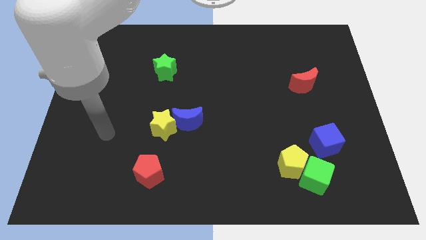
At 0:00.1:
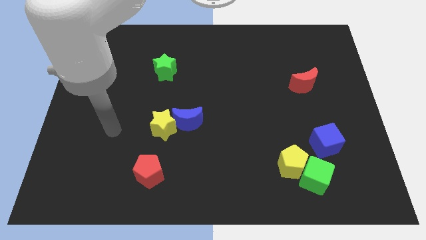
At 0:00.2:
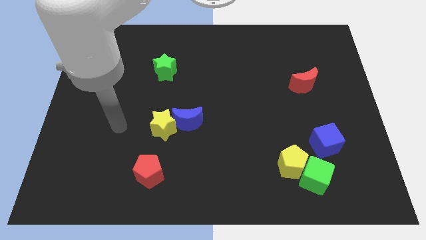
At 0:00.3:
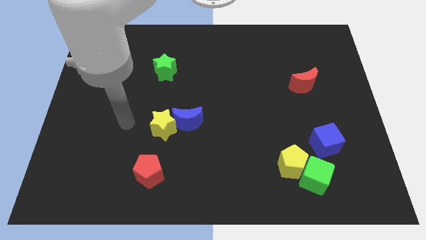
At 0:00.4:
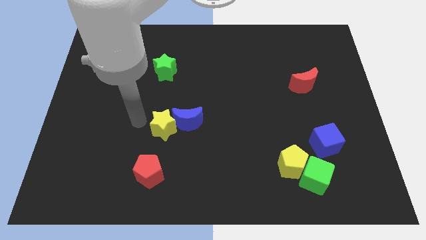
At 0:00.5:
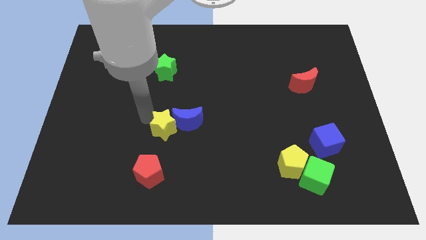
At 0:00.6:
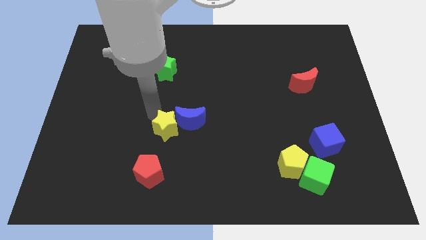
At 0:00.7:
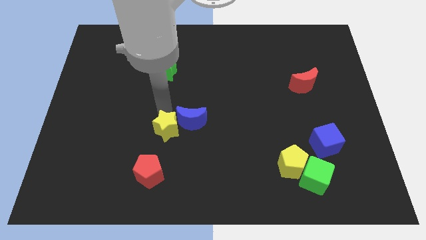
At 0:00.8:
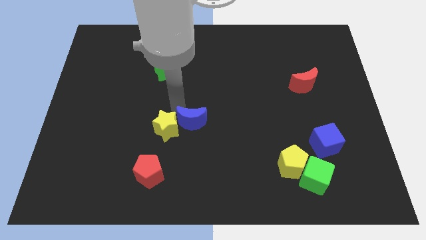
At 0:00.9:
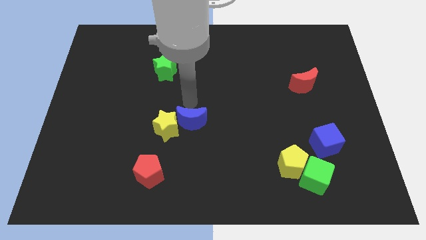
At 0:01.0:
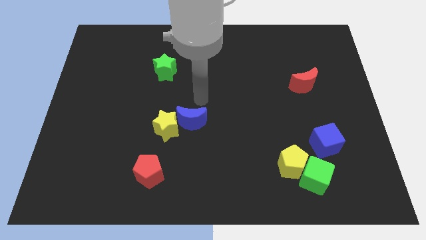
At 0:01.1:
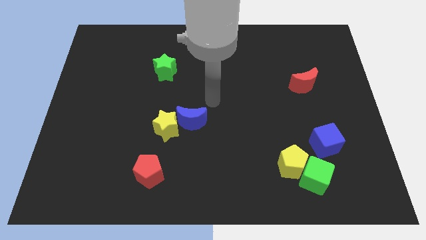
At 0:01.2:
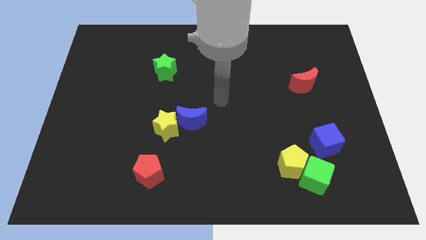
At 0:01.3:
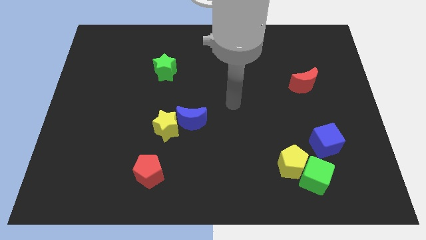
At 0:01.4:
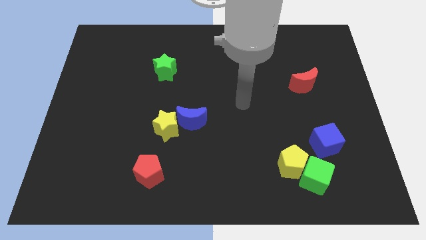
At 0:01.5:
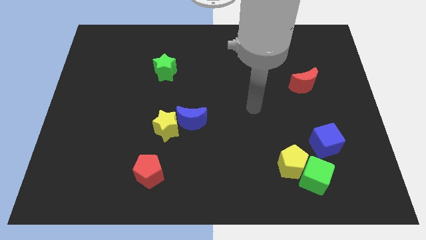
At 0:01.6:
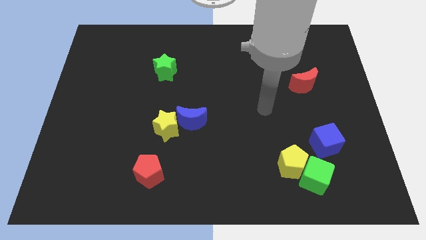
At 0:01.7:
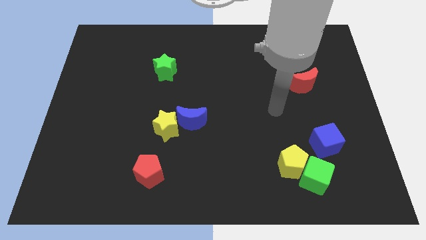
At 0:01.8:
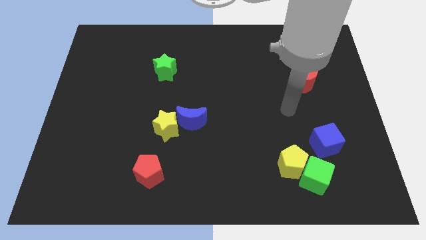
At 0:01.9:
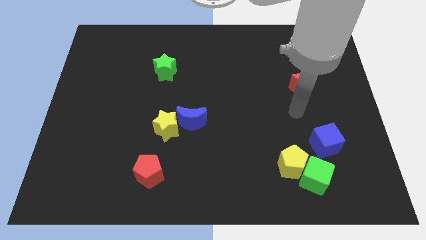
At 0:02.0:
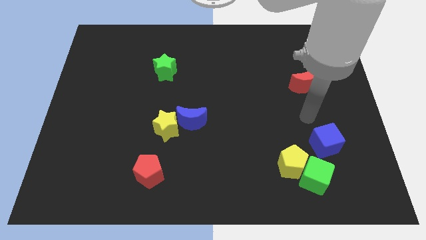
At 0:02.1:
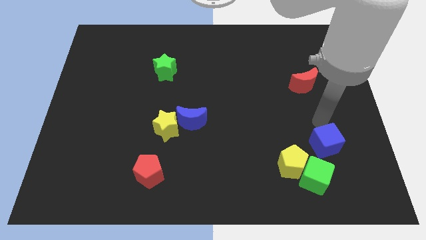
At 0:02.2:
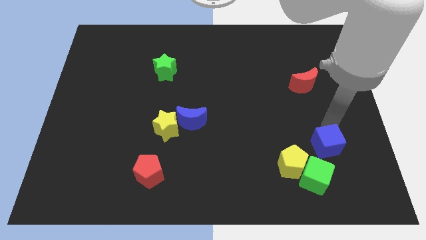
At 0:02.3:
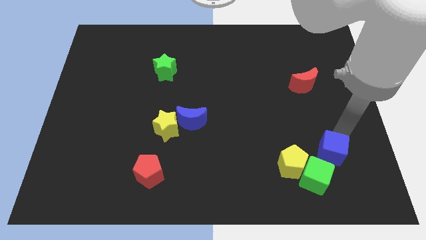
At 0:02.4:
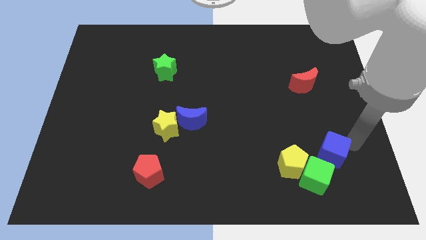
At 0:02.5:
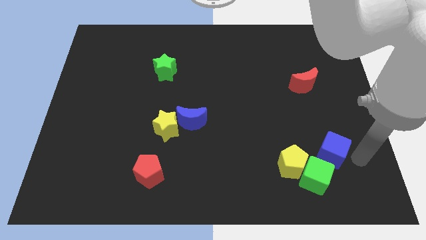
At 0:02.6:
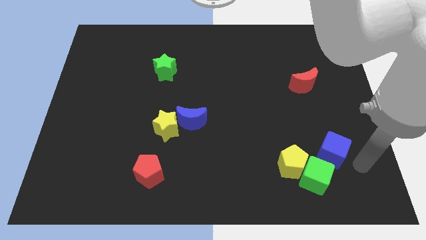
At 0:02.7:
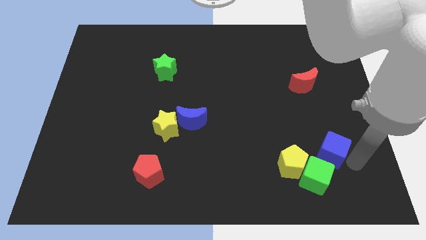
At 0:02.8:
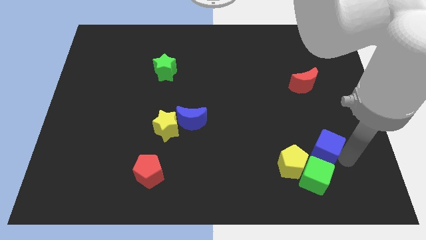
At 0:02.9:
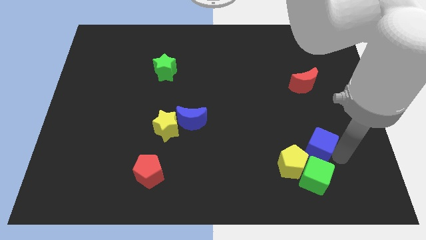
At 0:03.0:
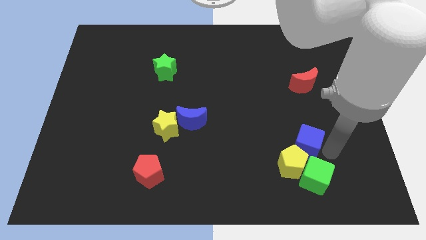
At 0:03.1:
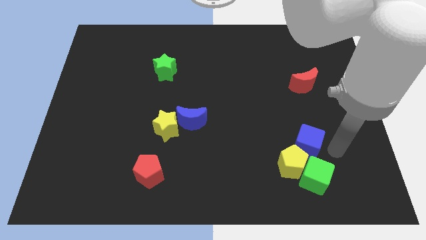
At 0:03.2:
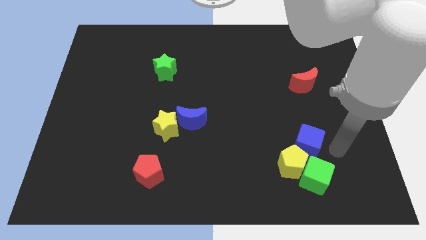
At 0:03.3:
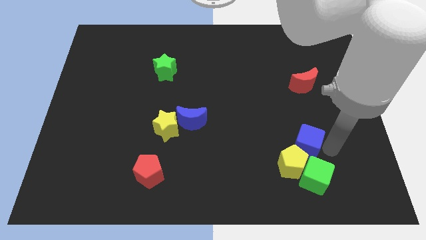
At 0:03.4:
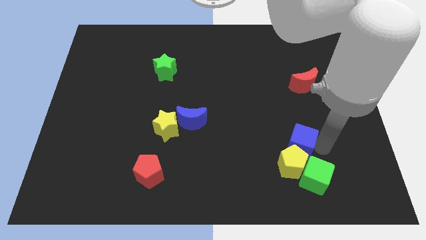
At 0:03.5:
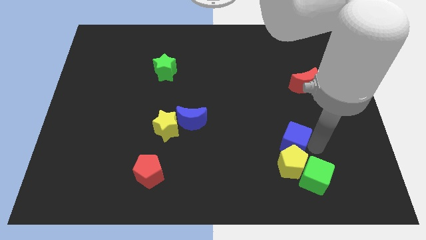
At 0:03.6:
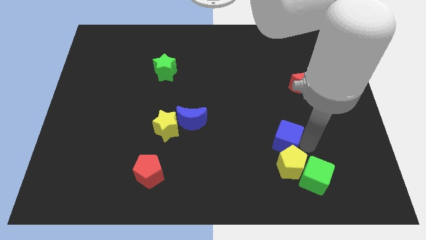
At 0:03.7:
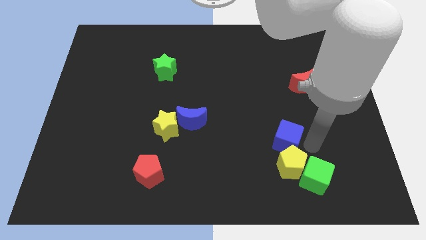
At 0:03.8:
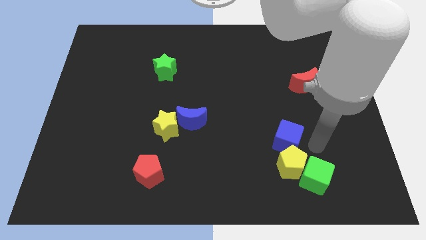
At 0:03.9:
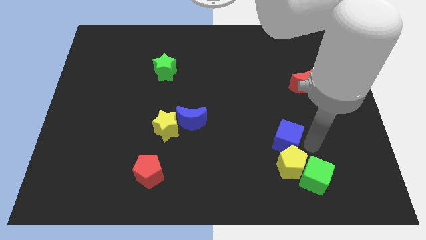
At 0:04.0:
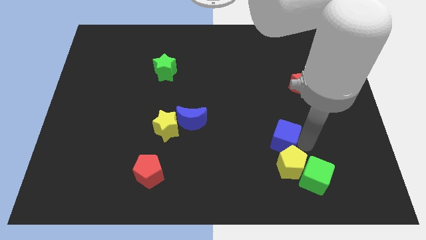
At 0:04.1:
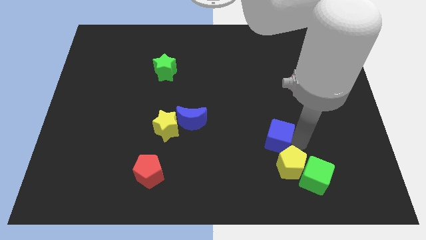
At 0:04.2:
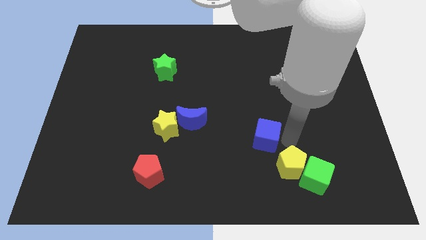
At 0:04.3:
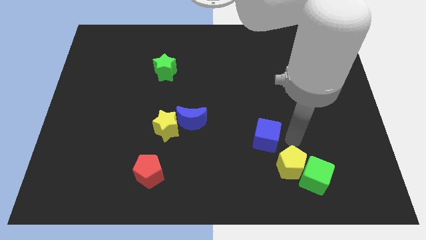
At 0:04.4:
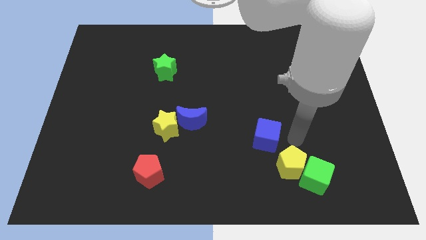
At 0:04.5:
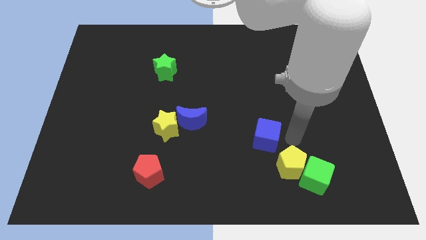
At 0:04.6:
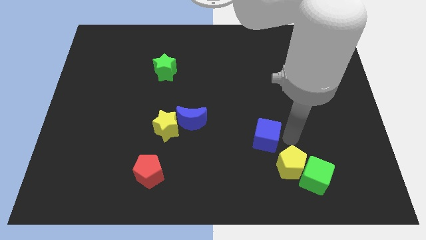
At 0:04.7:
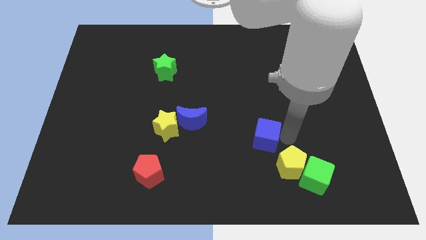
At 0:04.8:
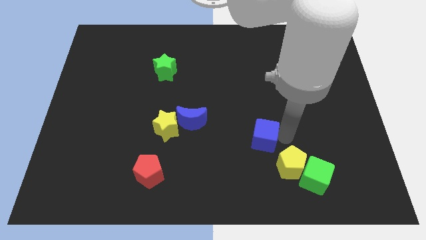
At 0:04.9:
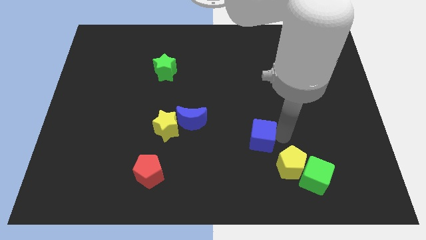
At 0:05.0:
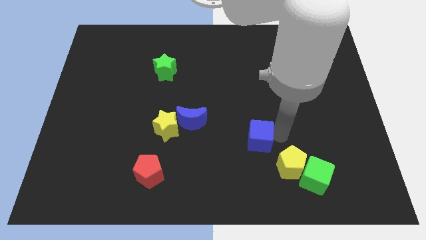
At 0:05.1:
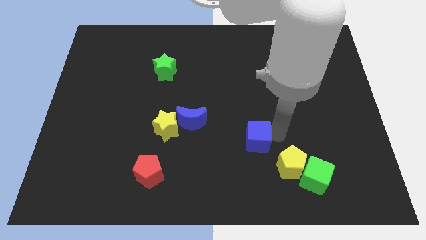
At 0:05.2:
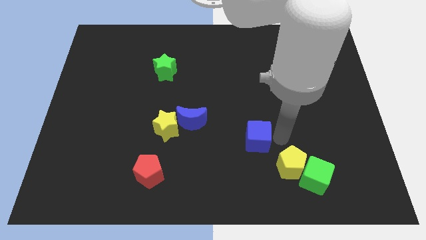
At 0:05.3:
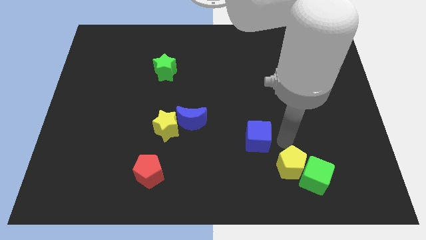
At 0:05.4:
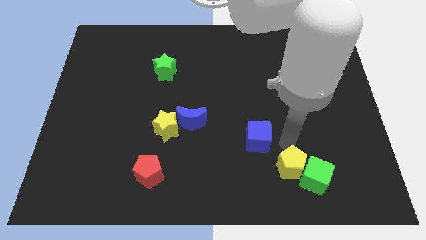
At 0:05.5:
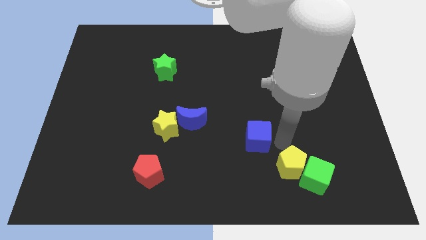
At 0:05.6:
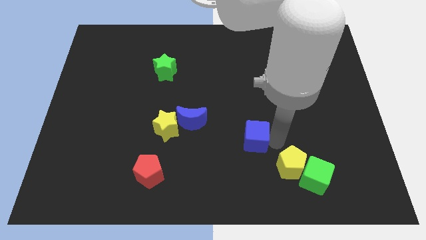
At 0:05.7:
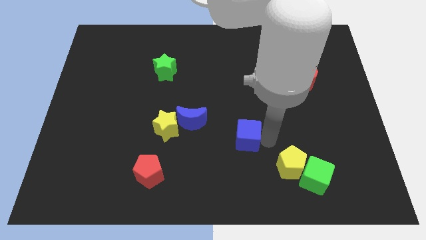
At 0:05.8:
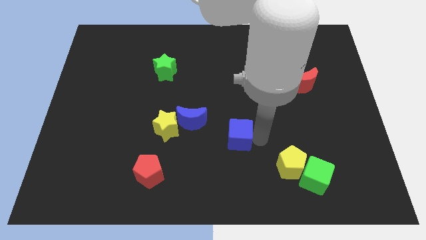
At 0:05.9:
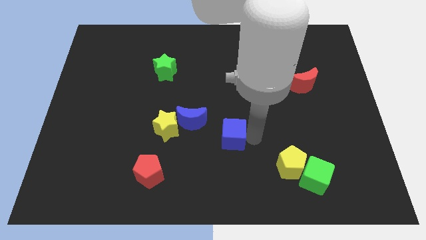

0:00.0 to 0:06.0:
move the blue cube to the left

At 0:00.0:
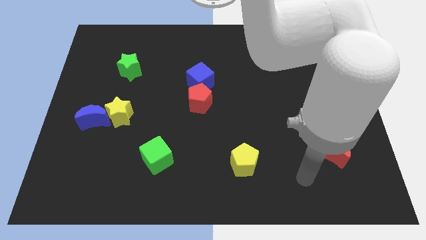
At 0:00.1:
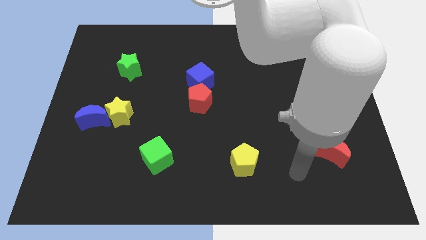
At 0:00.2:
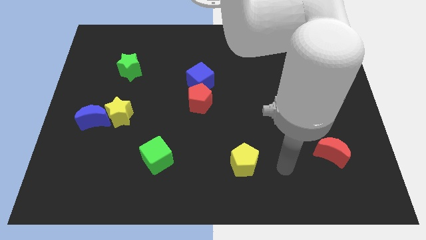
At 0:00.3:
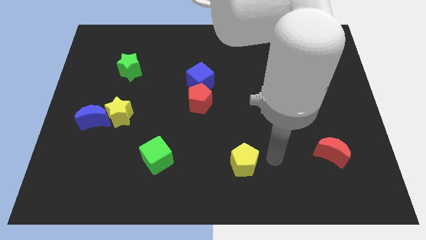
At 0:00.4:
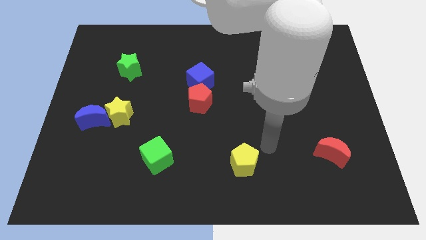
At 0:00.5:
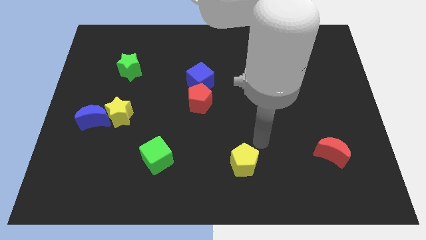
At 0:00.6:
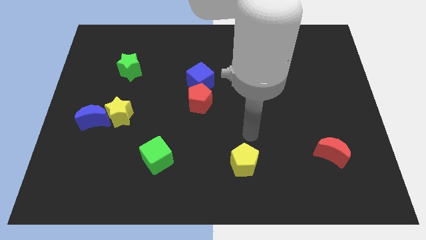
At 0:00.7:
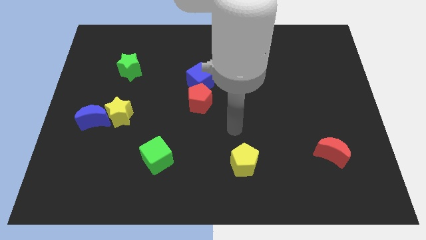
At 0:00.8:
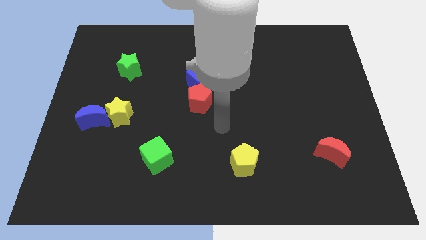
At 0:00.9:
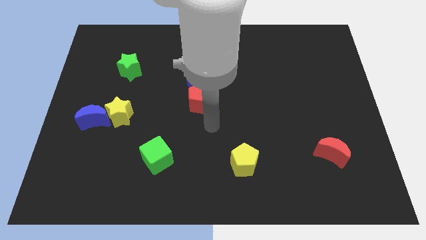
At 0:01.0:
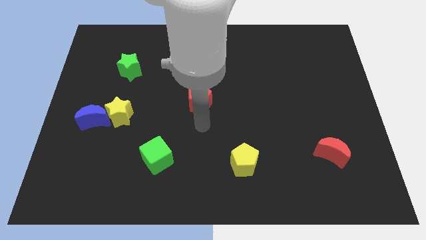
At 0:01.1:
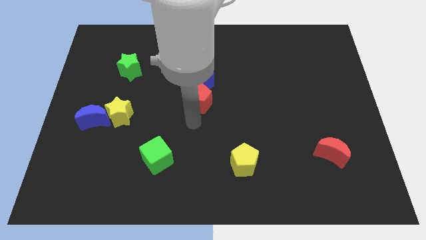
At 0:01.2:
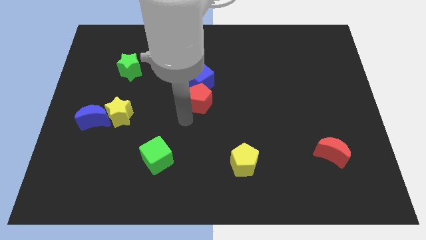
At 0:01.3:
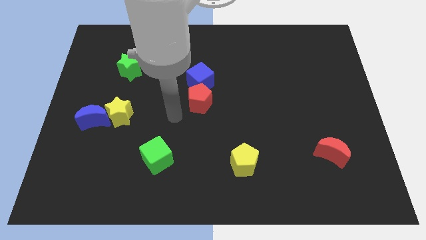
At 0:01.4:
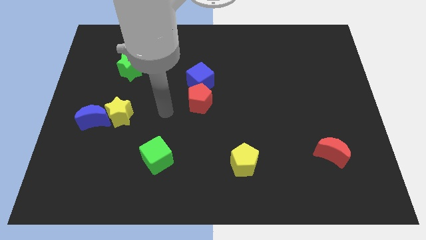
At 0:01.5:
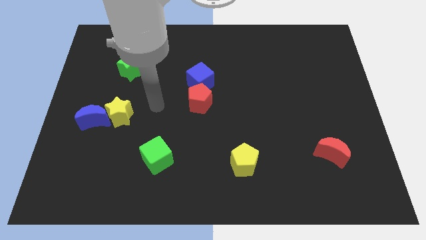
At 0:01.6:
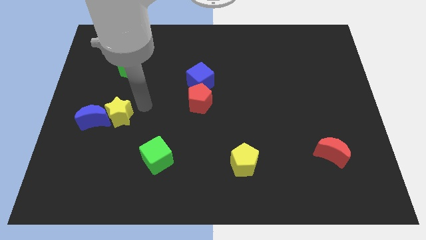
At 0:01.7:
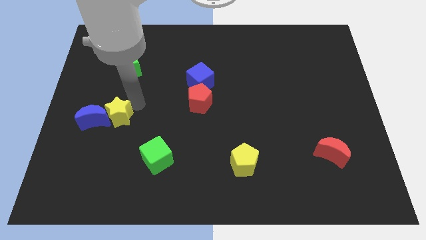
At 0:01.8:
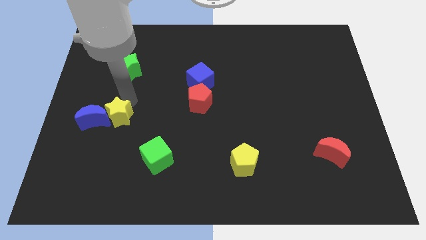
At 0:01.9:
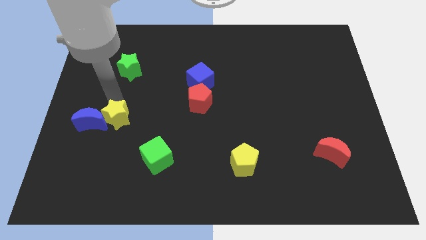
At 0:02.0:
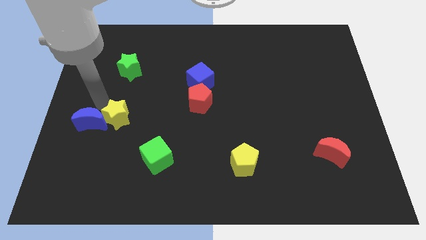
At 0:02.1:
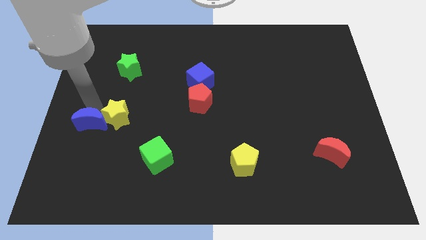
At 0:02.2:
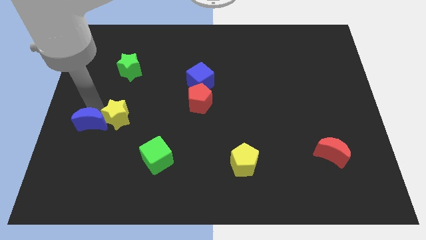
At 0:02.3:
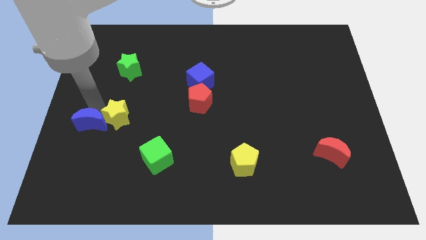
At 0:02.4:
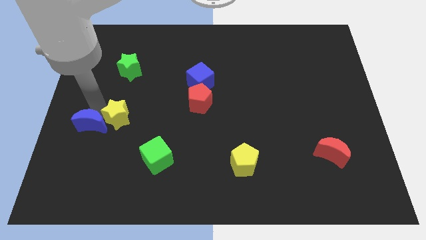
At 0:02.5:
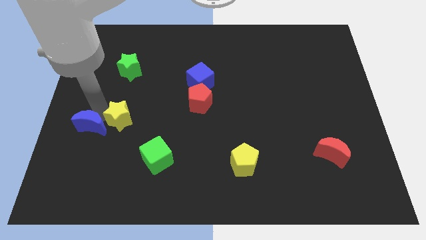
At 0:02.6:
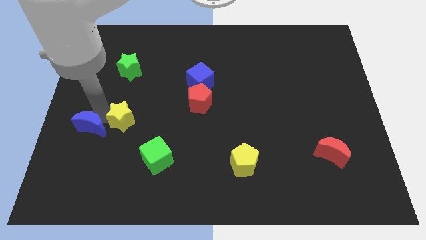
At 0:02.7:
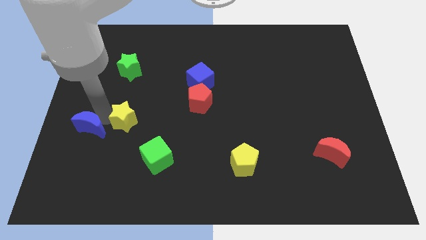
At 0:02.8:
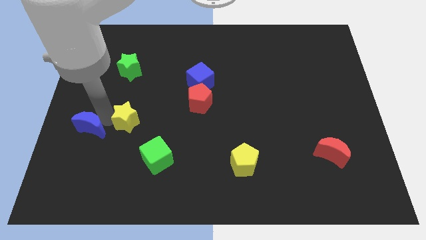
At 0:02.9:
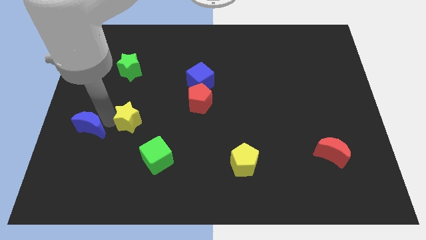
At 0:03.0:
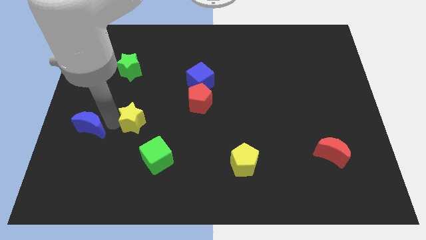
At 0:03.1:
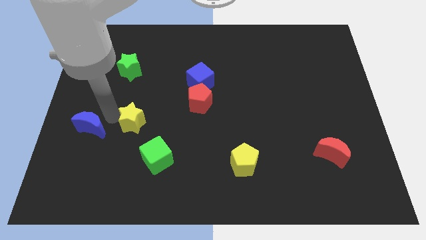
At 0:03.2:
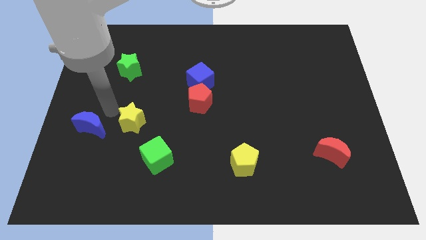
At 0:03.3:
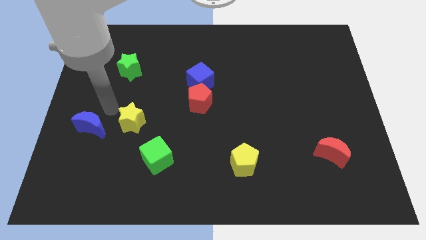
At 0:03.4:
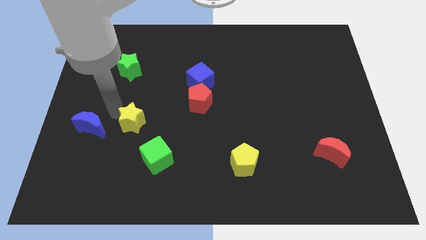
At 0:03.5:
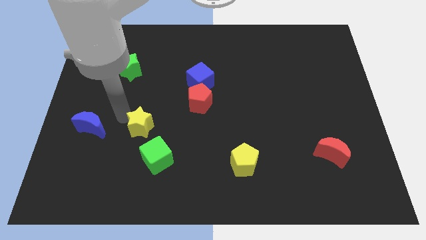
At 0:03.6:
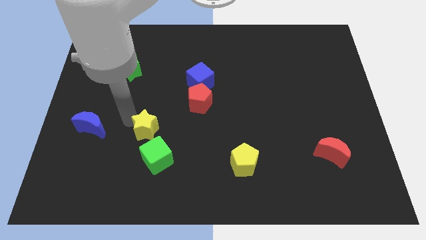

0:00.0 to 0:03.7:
push the yellow star diagonally down and to the right a bit
